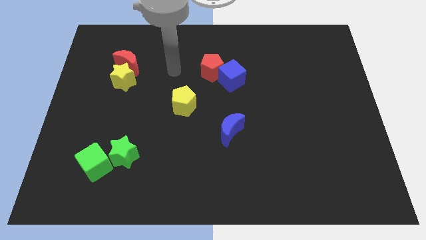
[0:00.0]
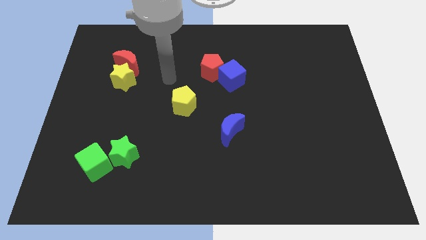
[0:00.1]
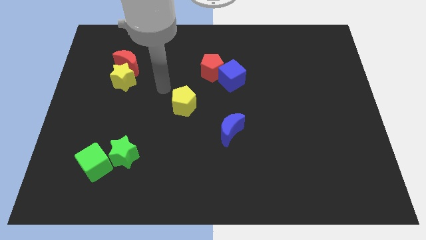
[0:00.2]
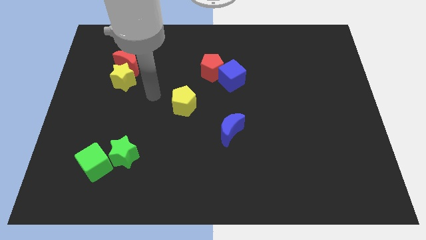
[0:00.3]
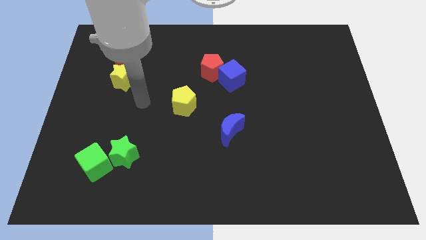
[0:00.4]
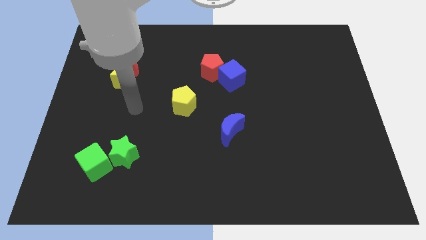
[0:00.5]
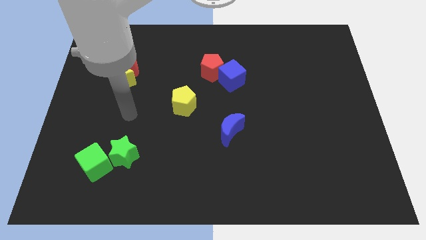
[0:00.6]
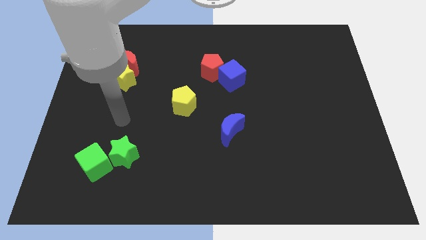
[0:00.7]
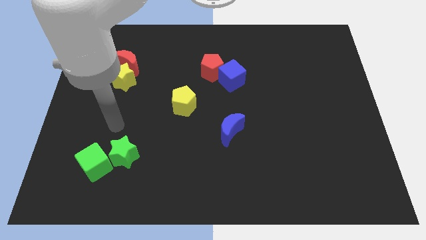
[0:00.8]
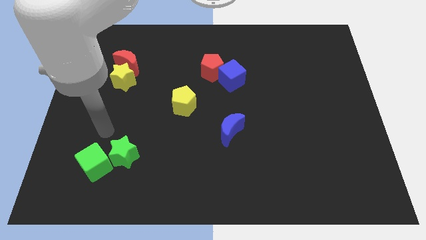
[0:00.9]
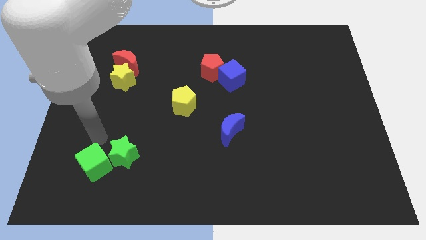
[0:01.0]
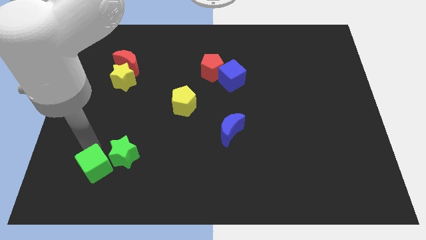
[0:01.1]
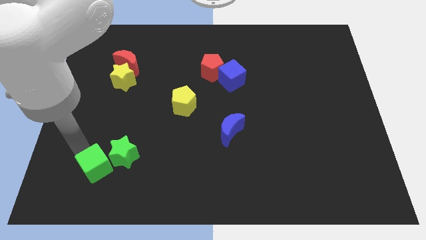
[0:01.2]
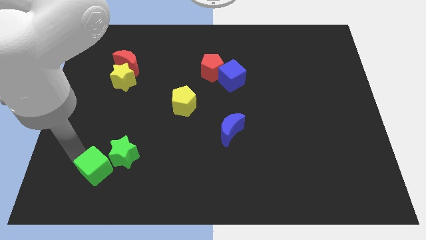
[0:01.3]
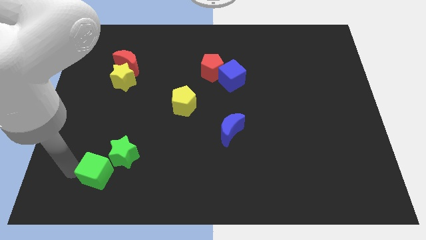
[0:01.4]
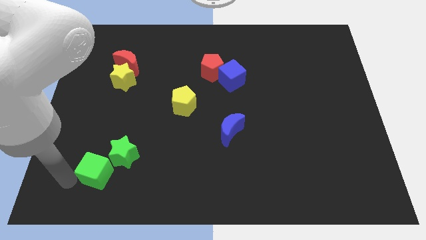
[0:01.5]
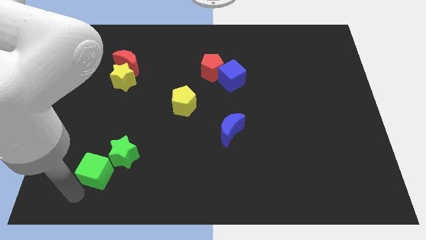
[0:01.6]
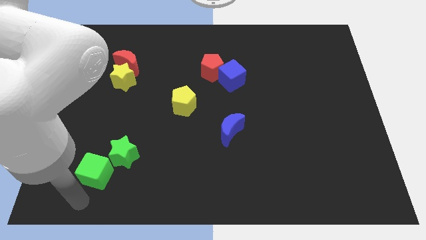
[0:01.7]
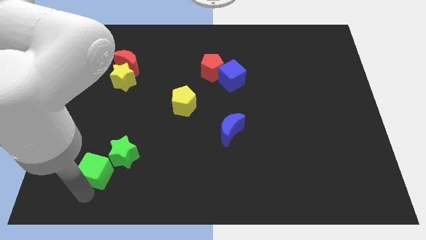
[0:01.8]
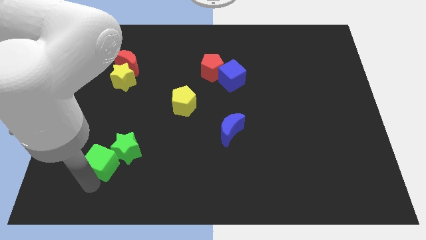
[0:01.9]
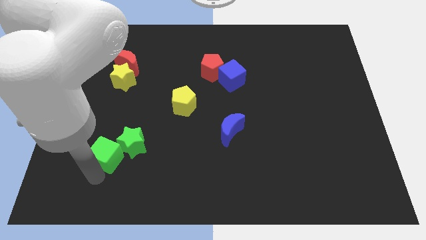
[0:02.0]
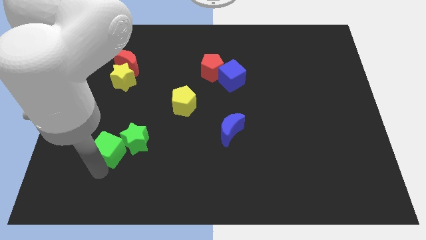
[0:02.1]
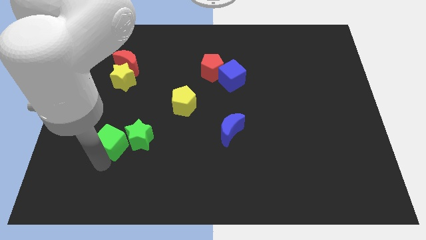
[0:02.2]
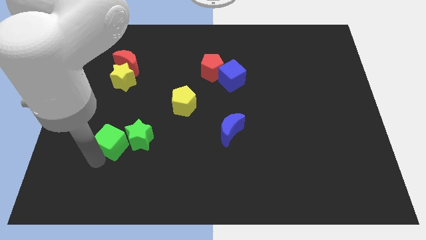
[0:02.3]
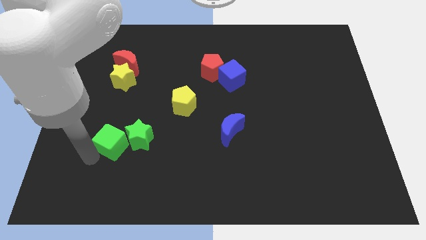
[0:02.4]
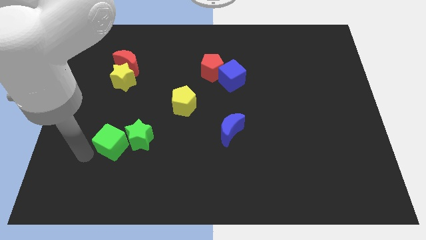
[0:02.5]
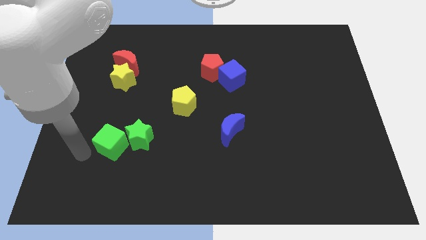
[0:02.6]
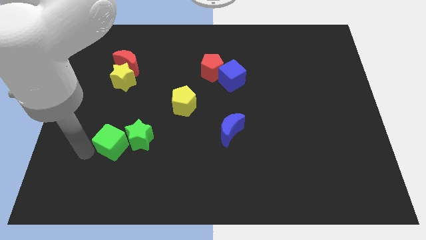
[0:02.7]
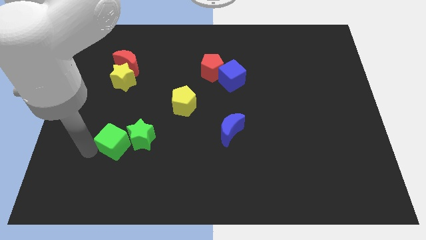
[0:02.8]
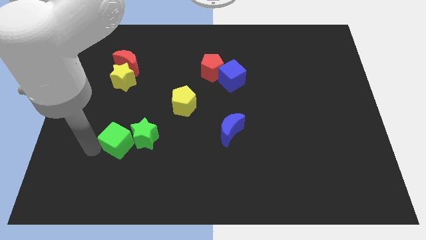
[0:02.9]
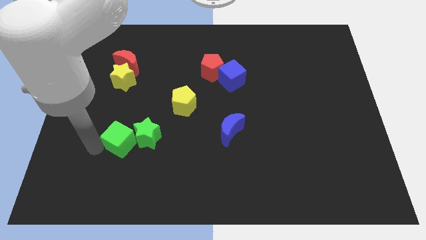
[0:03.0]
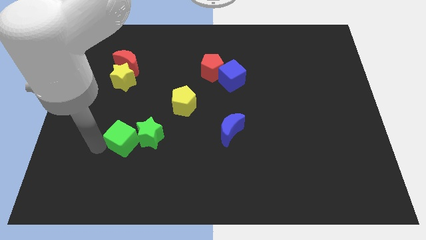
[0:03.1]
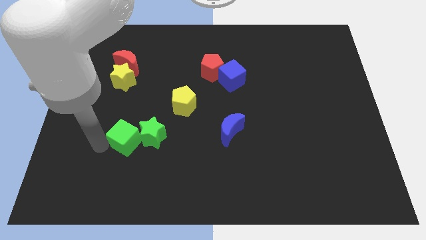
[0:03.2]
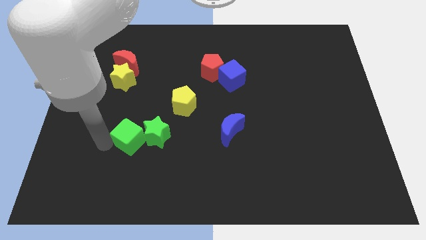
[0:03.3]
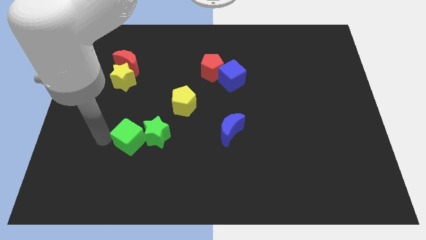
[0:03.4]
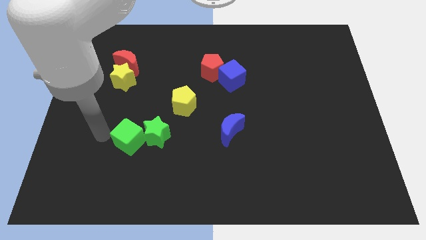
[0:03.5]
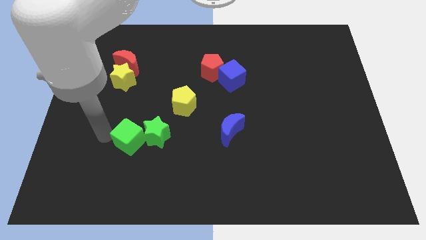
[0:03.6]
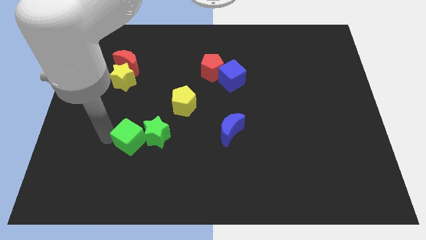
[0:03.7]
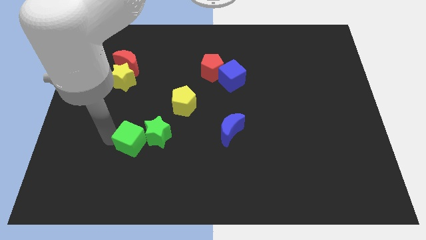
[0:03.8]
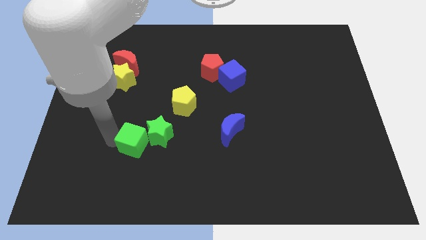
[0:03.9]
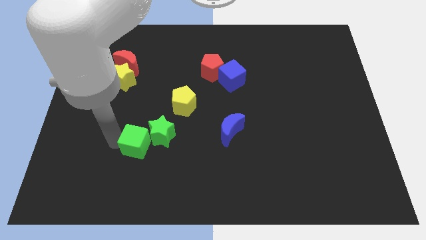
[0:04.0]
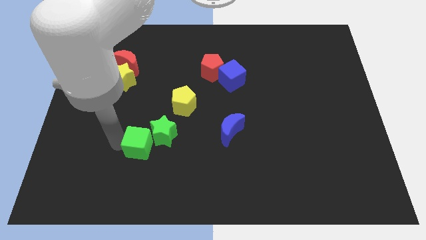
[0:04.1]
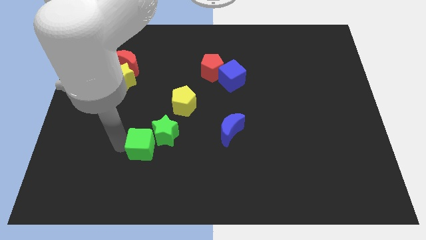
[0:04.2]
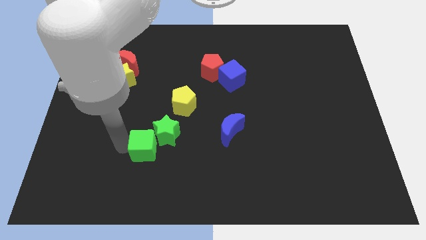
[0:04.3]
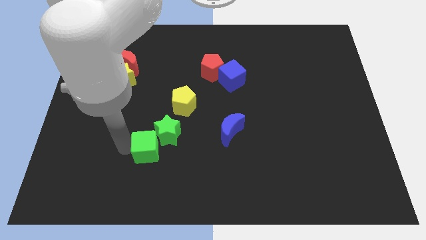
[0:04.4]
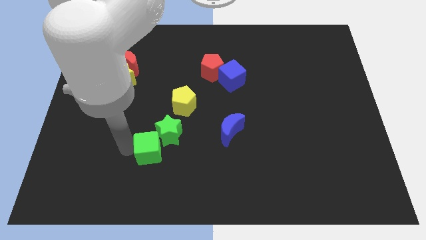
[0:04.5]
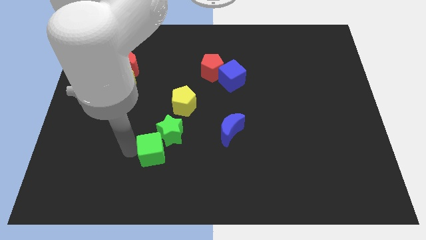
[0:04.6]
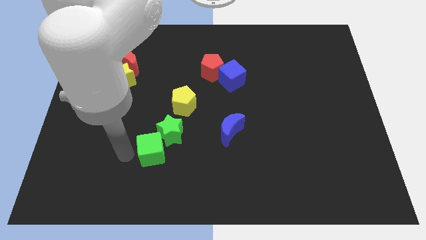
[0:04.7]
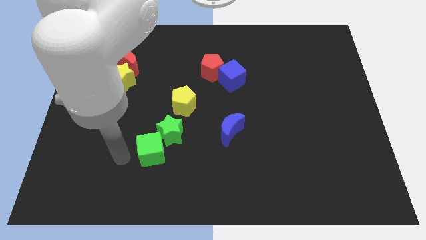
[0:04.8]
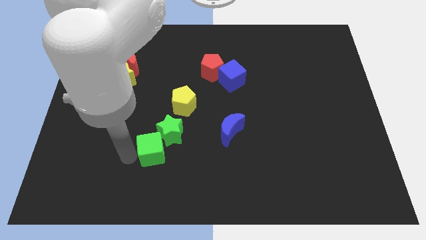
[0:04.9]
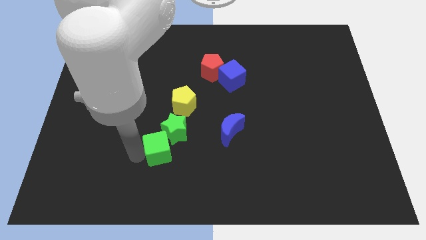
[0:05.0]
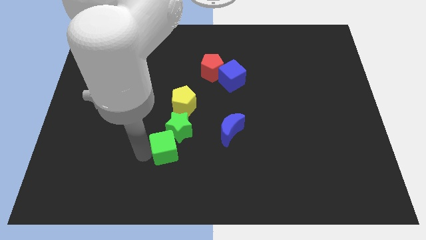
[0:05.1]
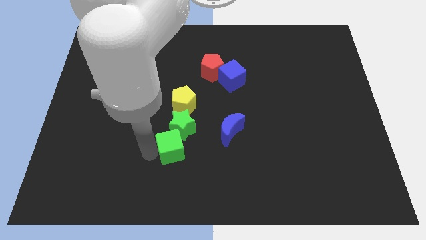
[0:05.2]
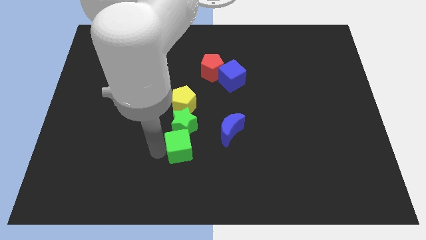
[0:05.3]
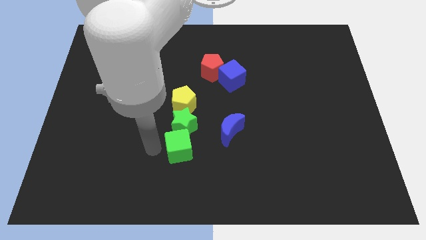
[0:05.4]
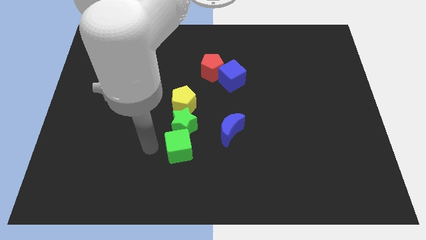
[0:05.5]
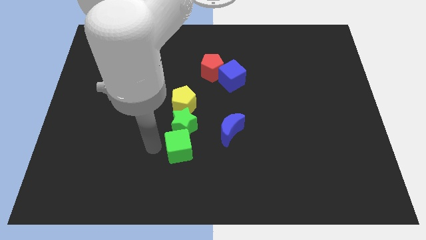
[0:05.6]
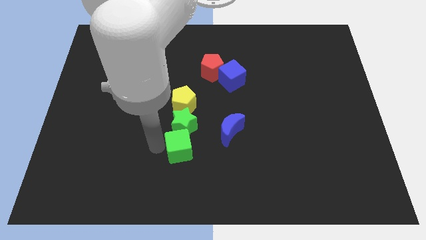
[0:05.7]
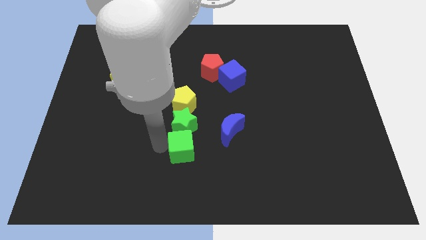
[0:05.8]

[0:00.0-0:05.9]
push the green cube diagonally down and to the left of the blue moon

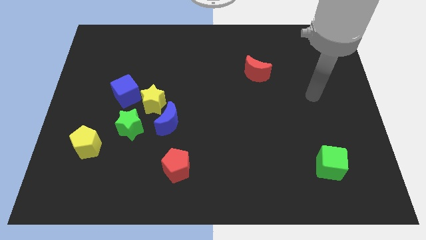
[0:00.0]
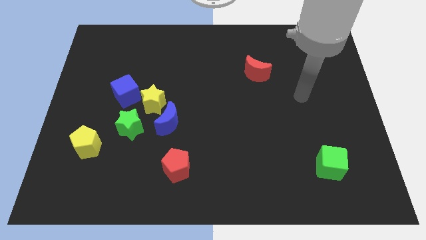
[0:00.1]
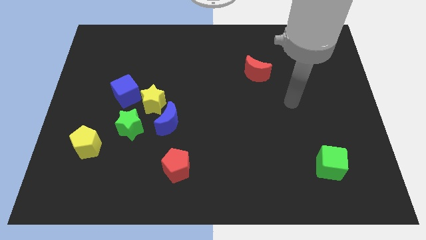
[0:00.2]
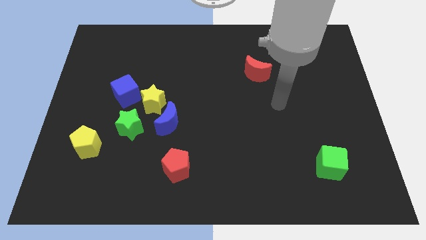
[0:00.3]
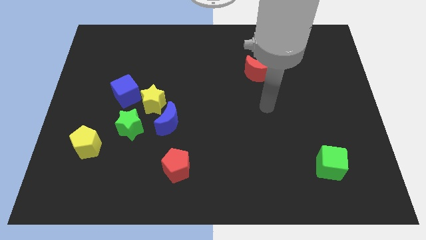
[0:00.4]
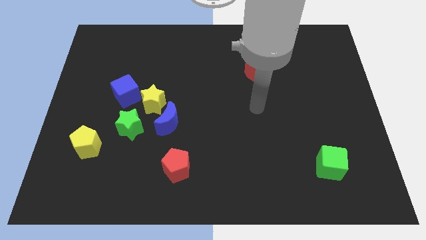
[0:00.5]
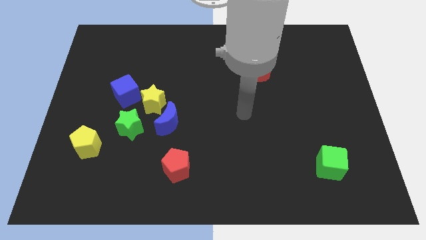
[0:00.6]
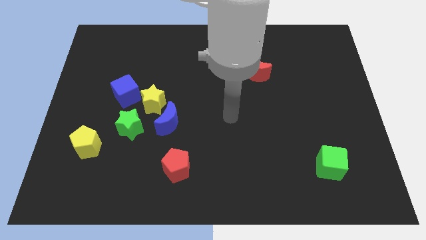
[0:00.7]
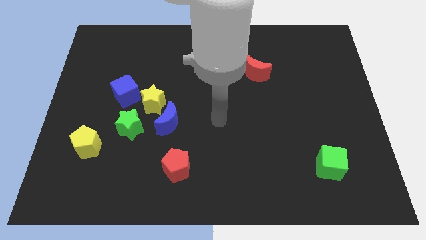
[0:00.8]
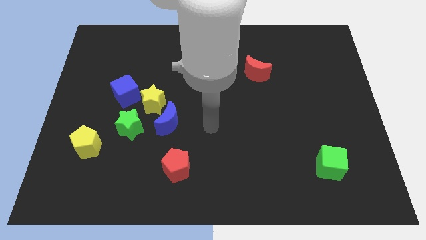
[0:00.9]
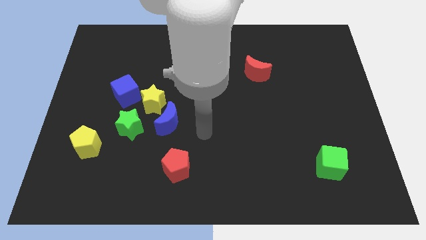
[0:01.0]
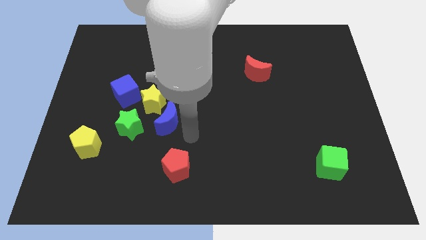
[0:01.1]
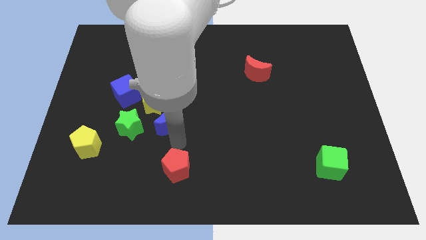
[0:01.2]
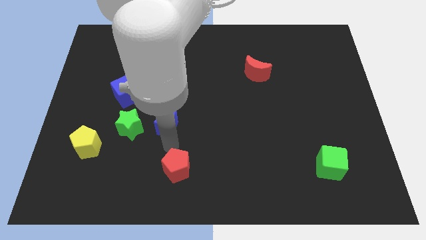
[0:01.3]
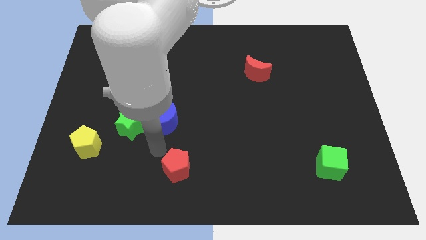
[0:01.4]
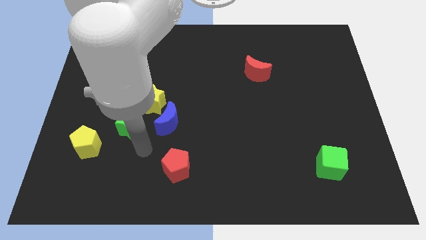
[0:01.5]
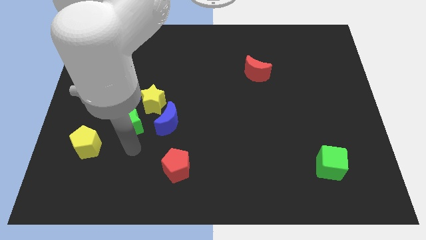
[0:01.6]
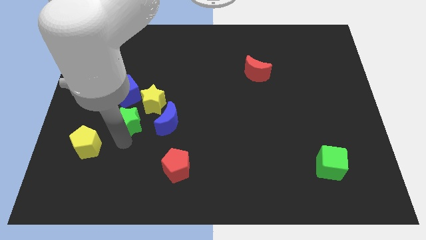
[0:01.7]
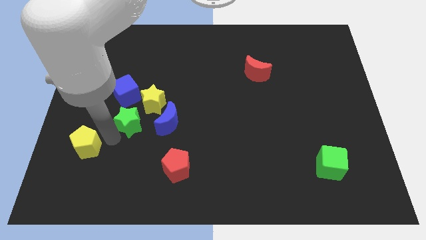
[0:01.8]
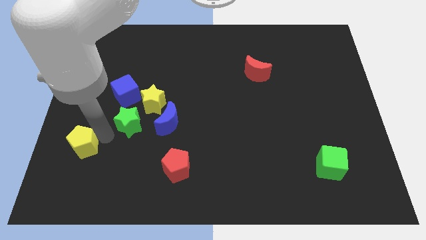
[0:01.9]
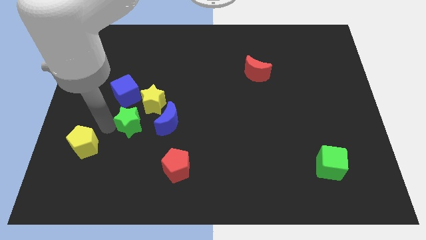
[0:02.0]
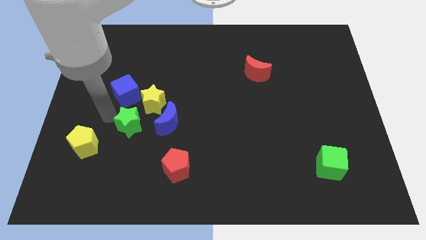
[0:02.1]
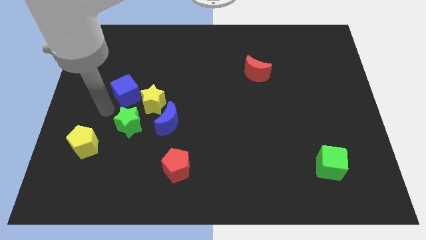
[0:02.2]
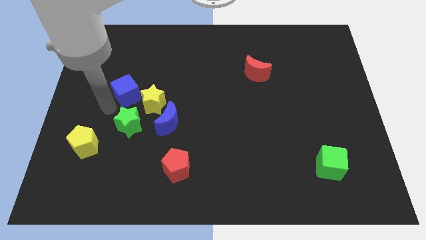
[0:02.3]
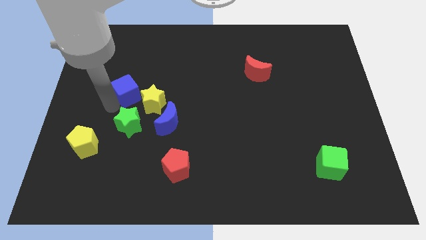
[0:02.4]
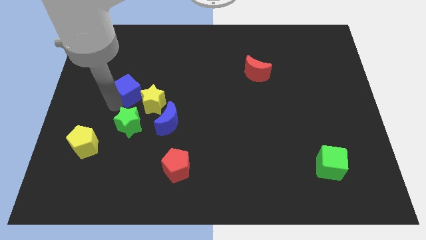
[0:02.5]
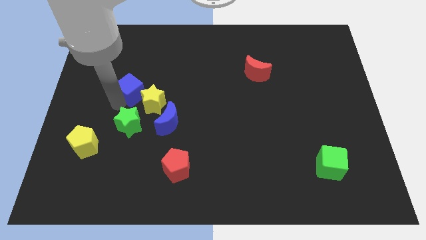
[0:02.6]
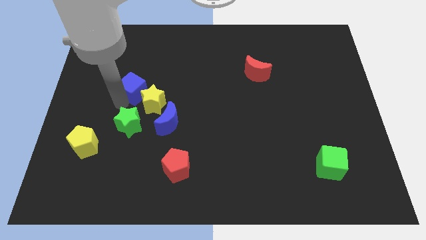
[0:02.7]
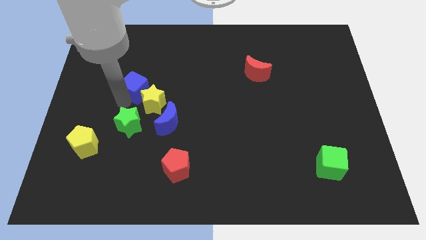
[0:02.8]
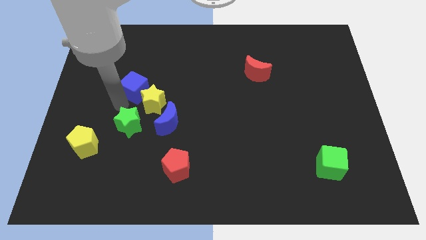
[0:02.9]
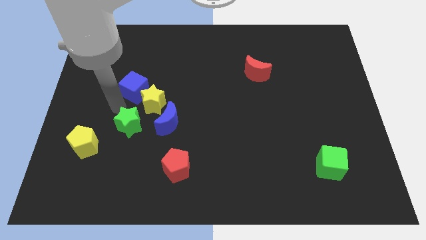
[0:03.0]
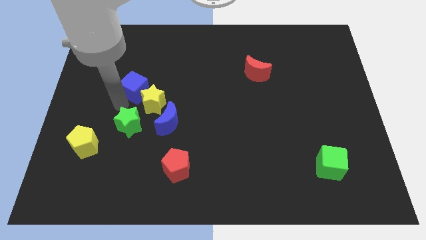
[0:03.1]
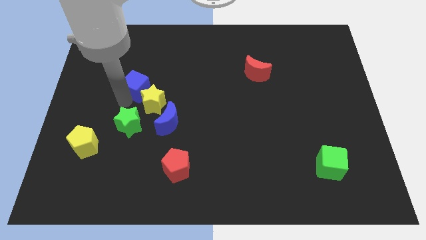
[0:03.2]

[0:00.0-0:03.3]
slide the blue cube to the top of the yellow star
